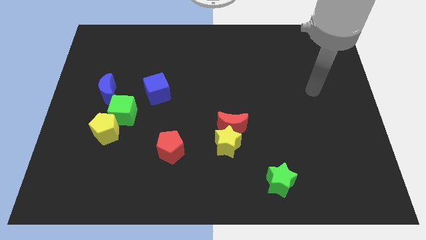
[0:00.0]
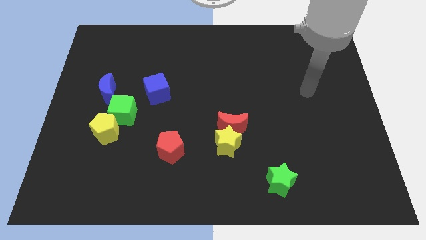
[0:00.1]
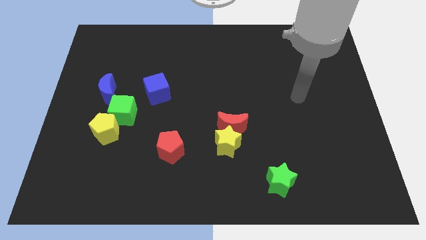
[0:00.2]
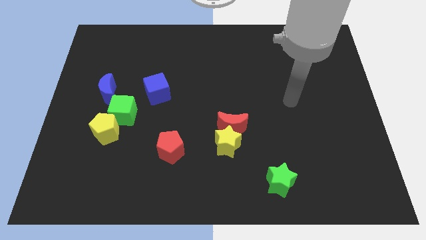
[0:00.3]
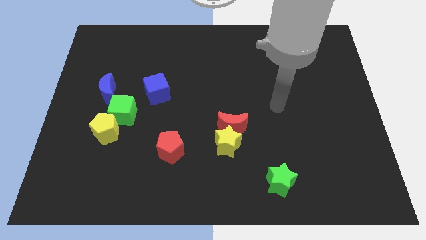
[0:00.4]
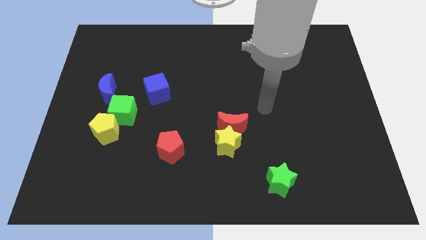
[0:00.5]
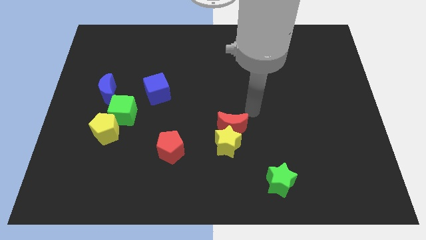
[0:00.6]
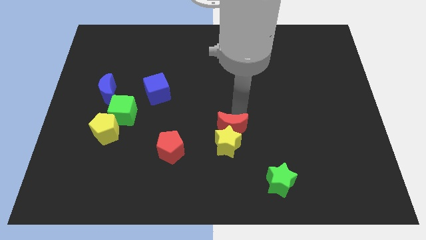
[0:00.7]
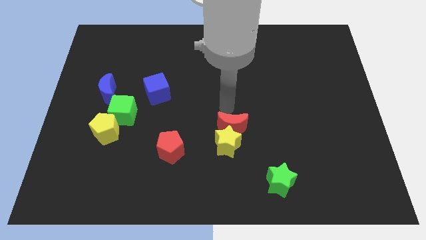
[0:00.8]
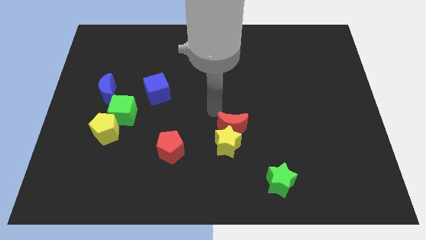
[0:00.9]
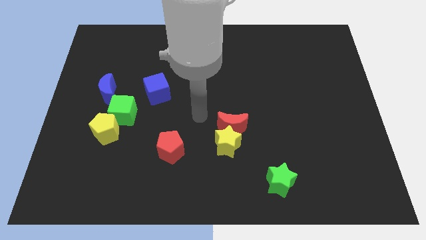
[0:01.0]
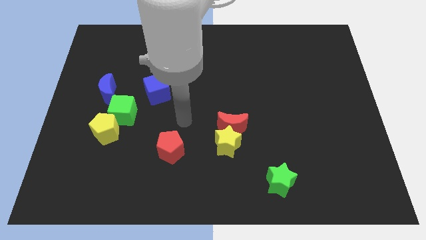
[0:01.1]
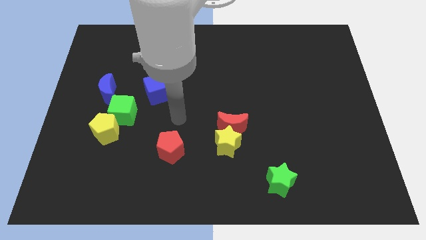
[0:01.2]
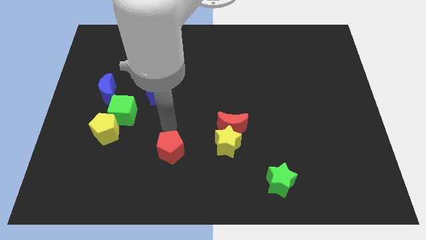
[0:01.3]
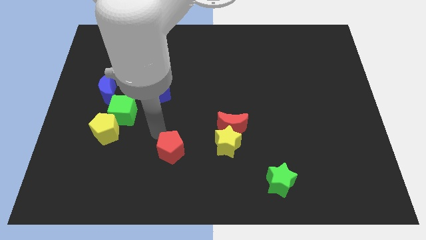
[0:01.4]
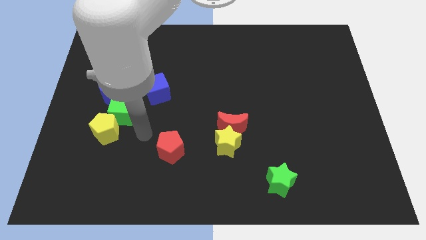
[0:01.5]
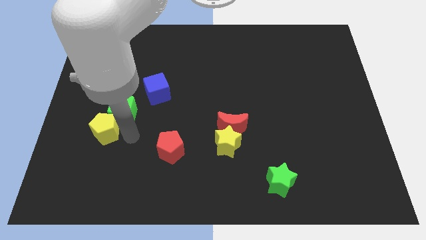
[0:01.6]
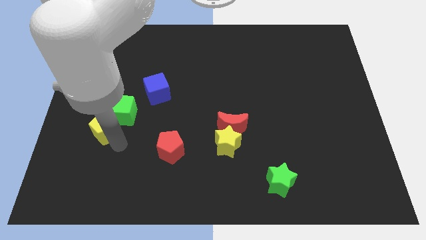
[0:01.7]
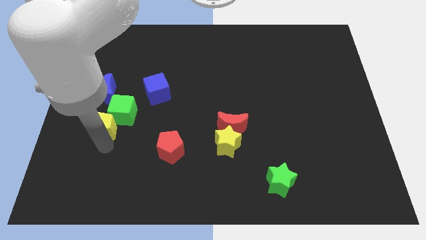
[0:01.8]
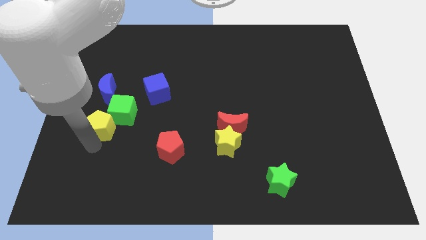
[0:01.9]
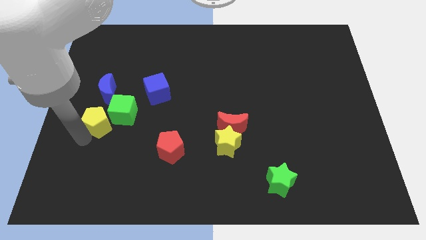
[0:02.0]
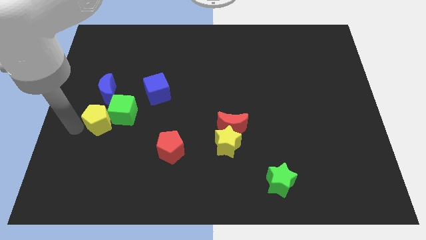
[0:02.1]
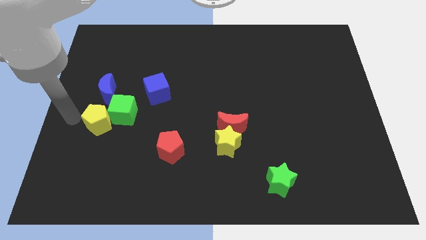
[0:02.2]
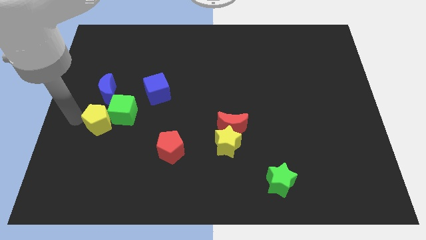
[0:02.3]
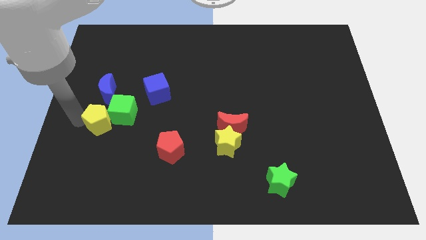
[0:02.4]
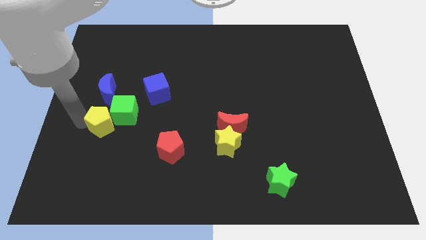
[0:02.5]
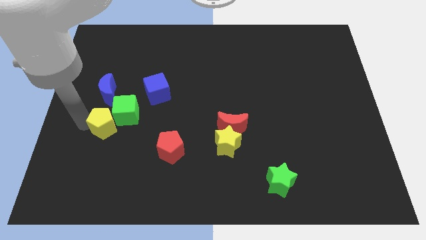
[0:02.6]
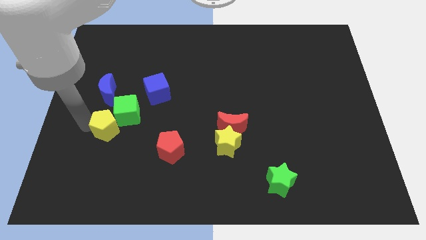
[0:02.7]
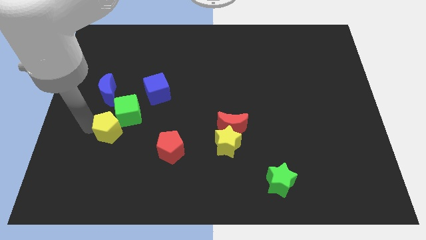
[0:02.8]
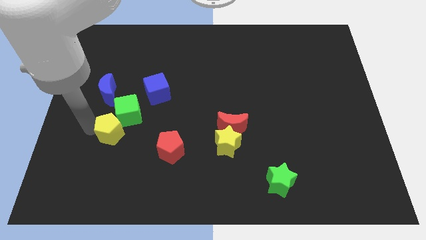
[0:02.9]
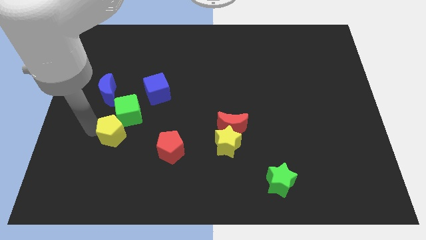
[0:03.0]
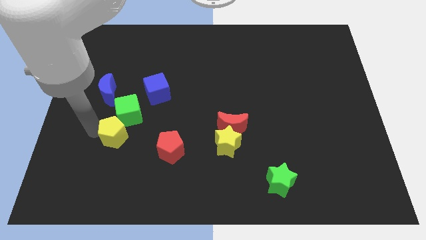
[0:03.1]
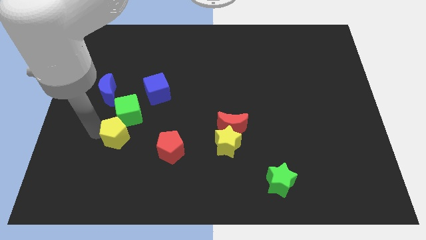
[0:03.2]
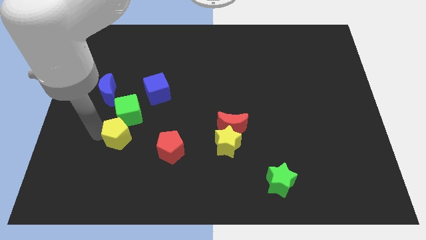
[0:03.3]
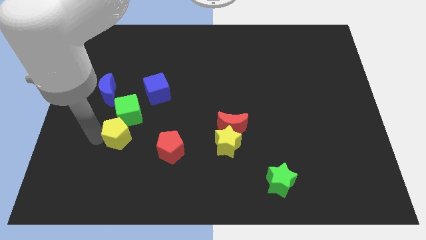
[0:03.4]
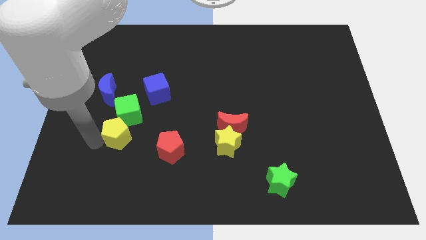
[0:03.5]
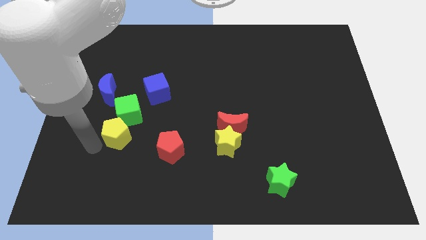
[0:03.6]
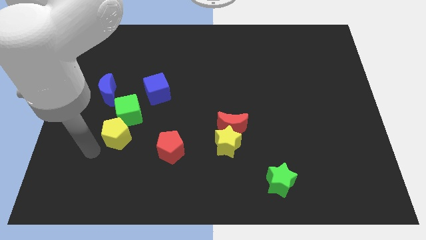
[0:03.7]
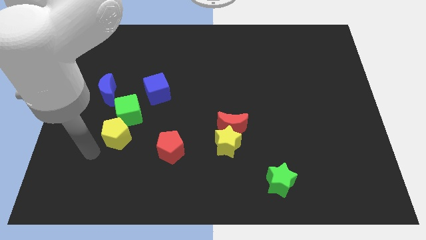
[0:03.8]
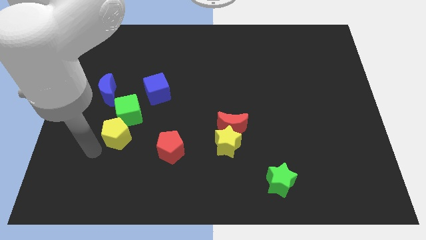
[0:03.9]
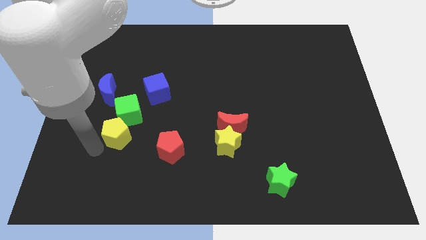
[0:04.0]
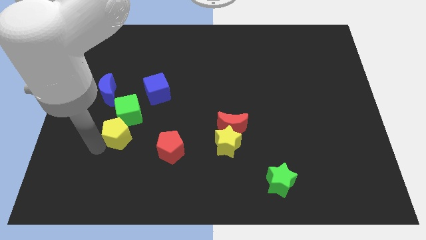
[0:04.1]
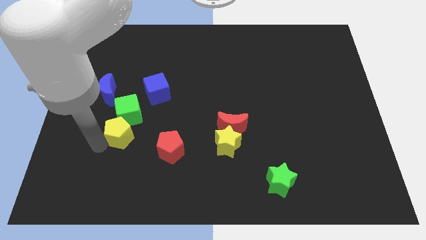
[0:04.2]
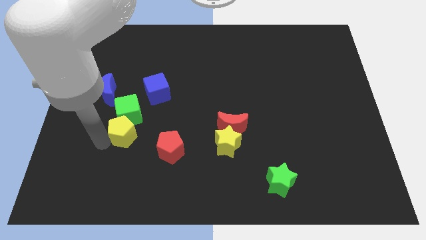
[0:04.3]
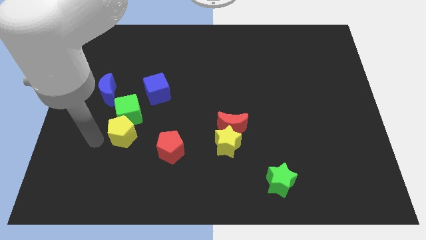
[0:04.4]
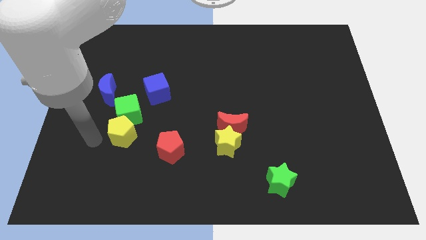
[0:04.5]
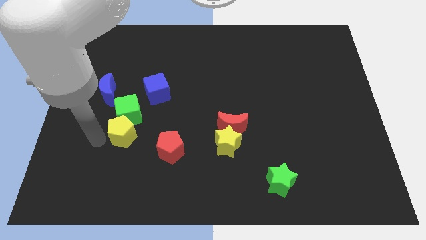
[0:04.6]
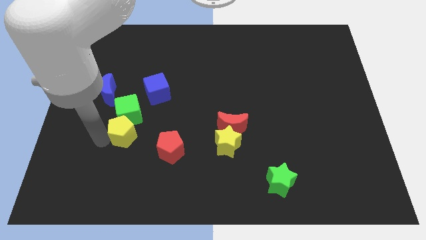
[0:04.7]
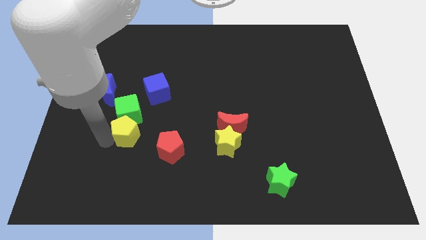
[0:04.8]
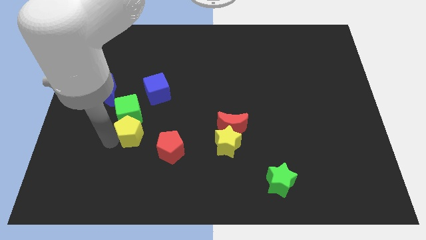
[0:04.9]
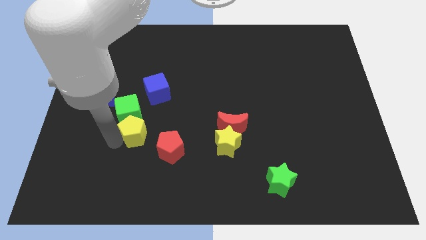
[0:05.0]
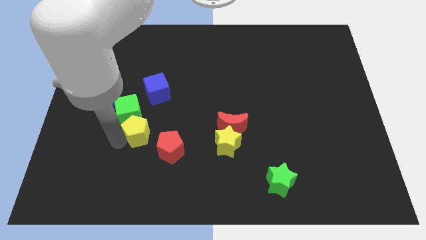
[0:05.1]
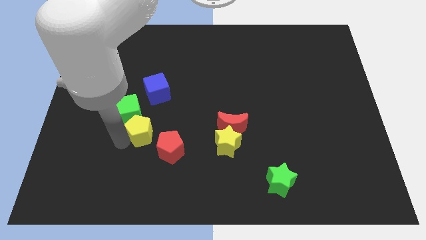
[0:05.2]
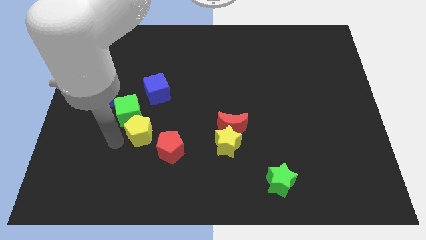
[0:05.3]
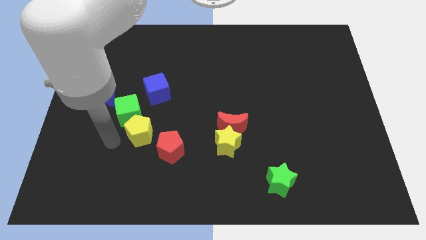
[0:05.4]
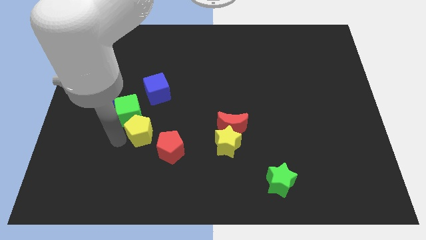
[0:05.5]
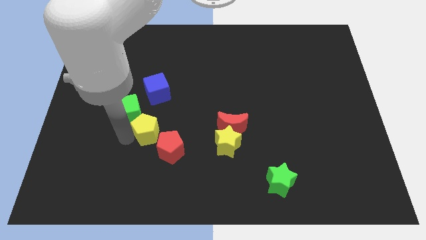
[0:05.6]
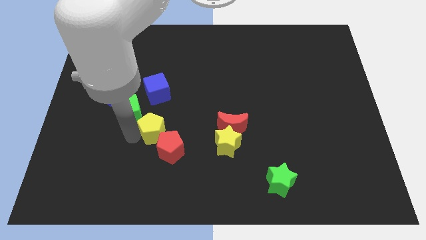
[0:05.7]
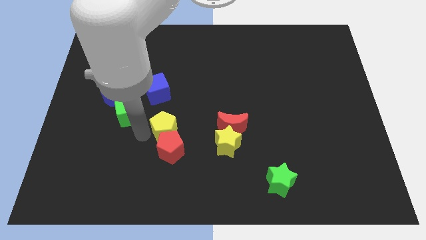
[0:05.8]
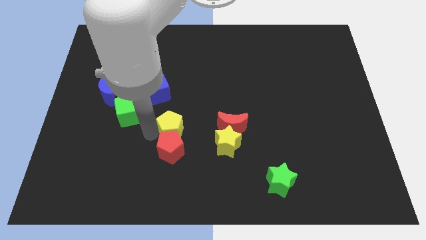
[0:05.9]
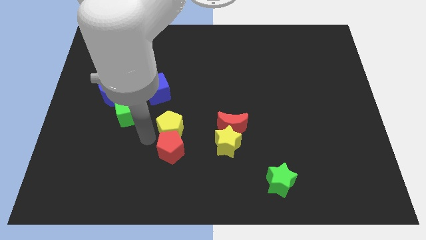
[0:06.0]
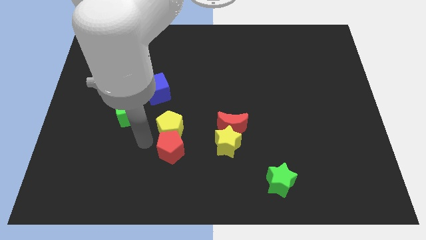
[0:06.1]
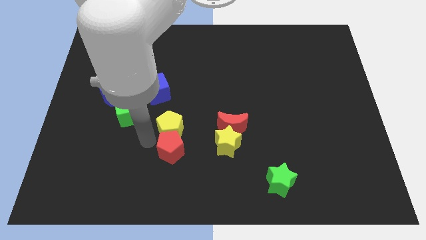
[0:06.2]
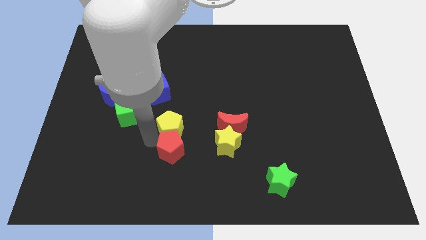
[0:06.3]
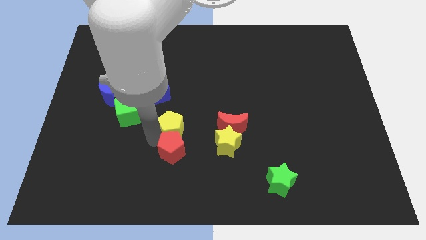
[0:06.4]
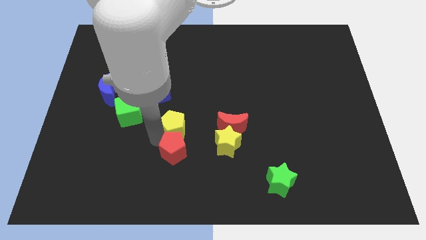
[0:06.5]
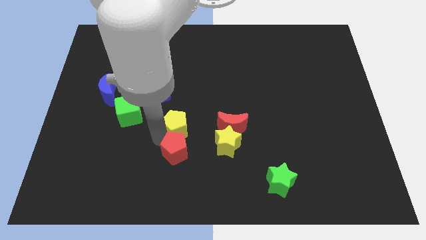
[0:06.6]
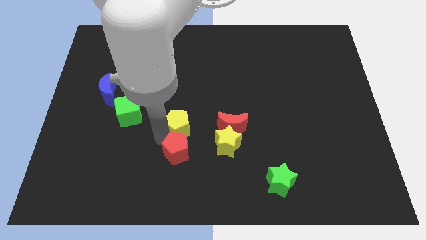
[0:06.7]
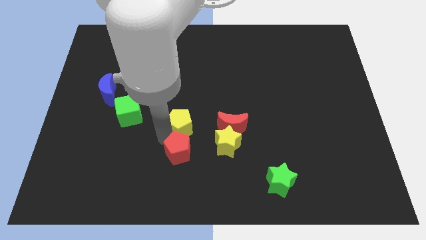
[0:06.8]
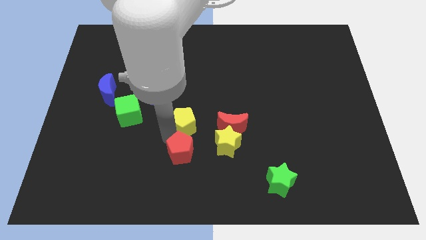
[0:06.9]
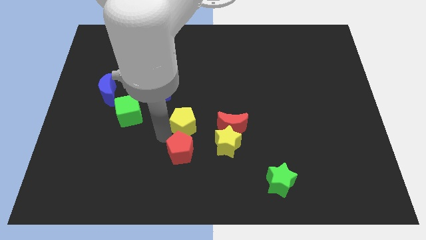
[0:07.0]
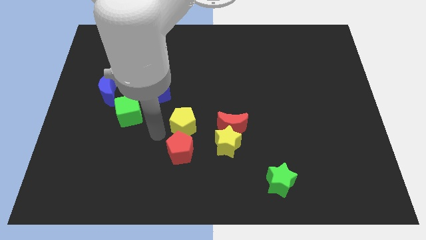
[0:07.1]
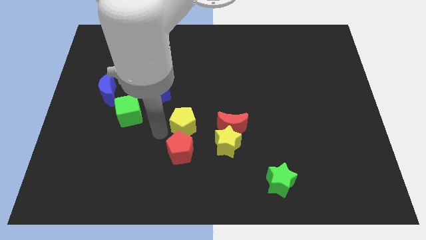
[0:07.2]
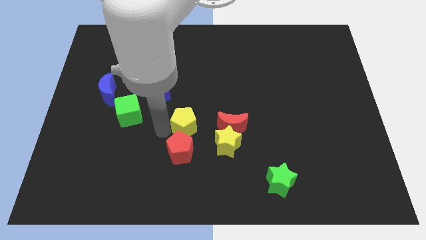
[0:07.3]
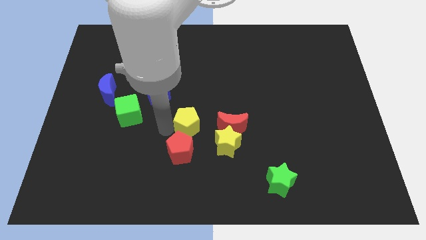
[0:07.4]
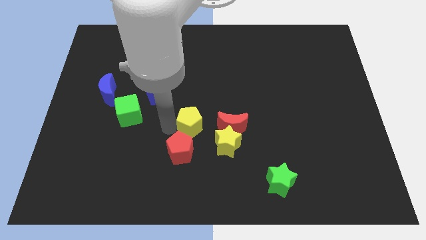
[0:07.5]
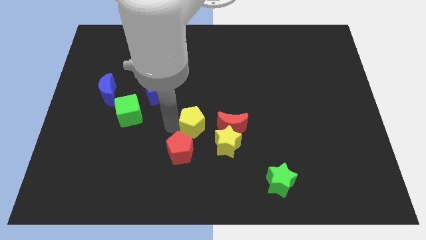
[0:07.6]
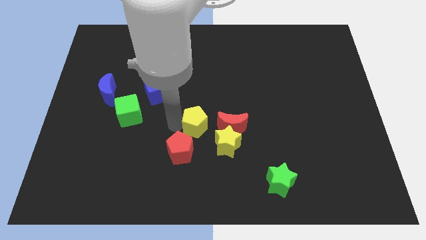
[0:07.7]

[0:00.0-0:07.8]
push the yellow pentagon to the right

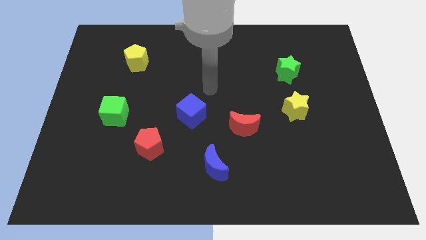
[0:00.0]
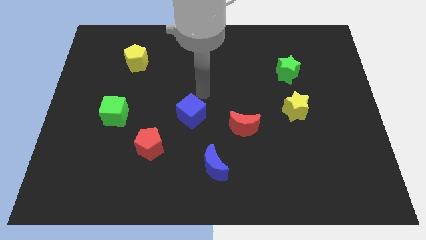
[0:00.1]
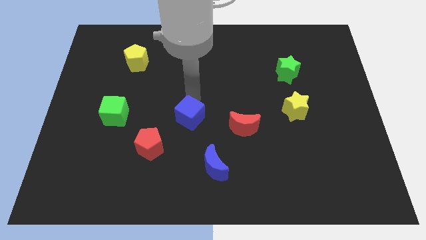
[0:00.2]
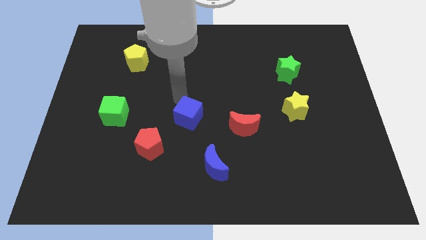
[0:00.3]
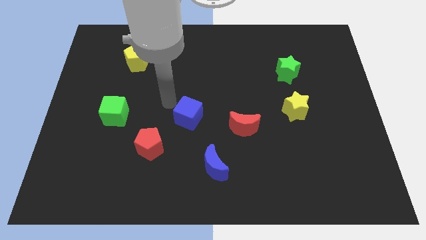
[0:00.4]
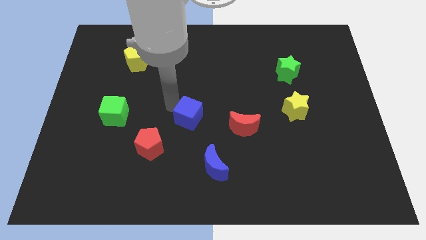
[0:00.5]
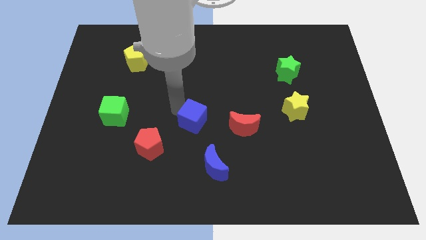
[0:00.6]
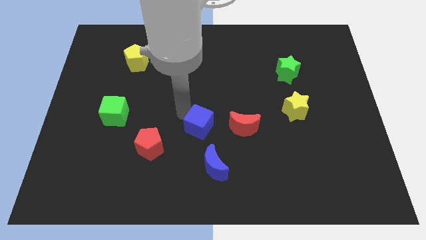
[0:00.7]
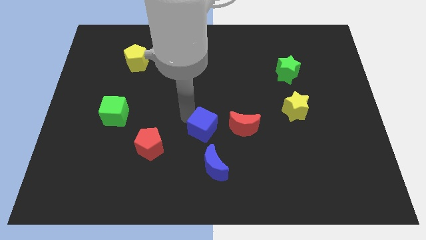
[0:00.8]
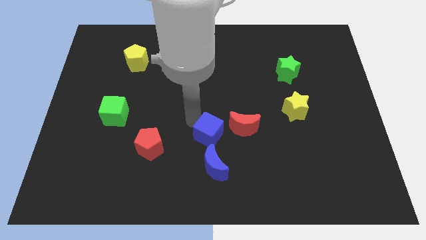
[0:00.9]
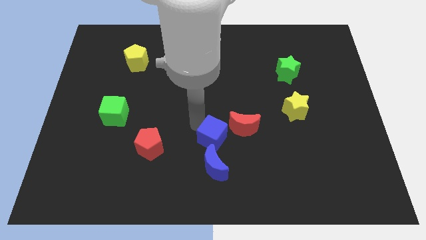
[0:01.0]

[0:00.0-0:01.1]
move the blue cube a little down and to the right
